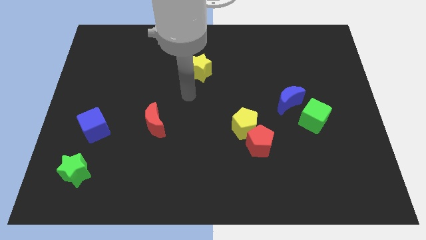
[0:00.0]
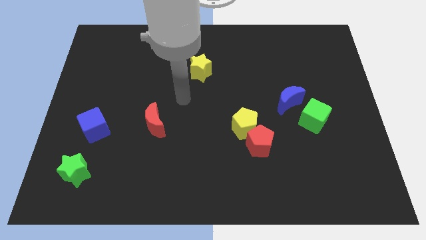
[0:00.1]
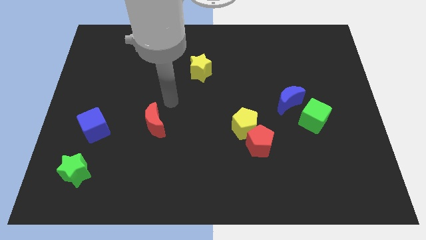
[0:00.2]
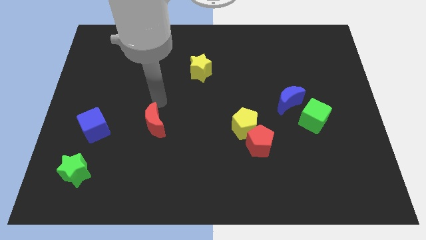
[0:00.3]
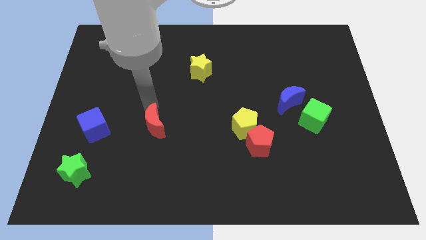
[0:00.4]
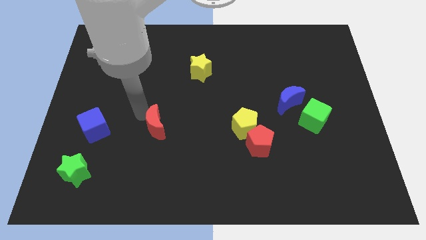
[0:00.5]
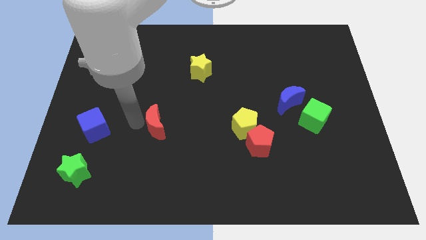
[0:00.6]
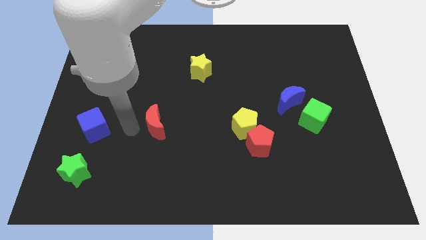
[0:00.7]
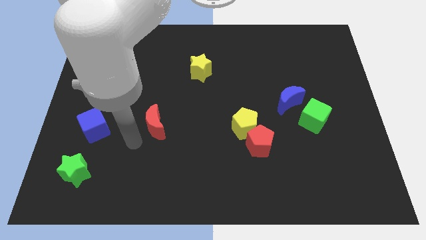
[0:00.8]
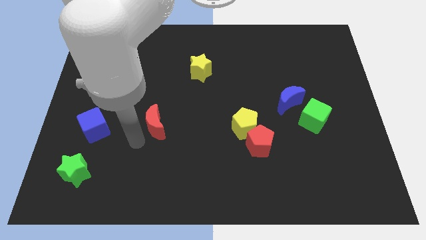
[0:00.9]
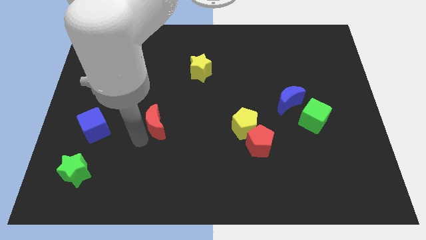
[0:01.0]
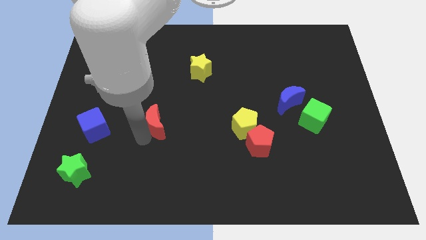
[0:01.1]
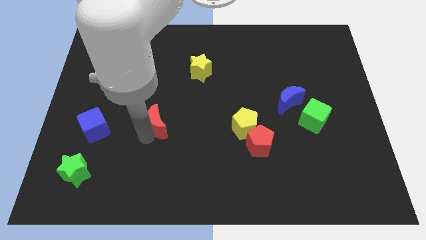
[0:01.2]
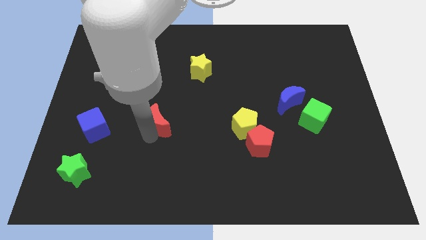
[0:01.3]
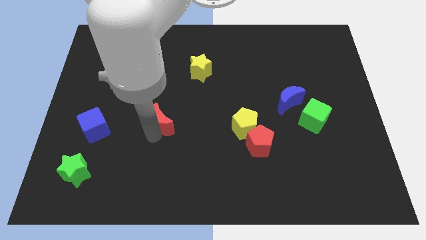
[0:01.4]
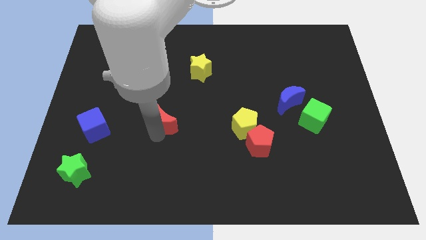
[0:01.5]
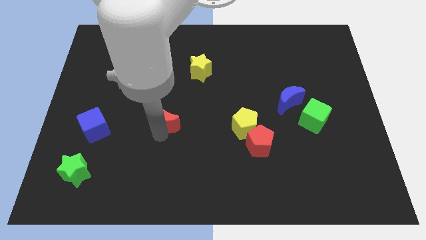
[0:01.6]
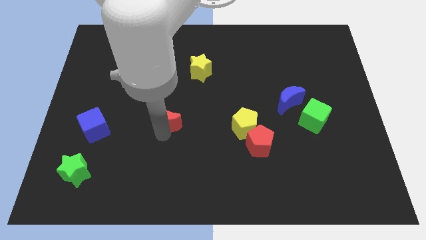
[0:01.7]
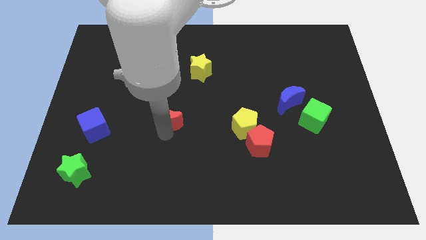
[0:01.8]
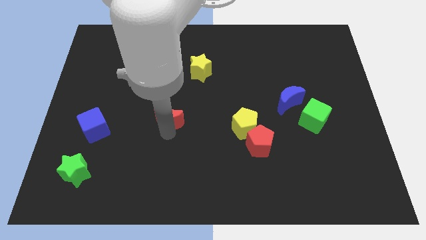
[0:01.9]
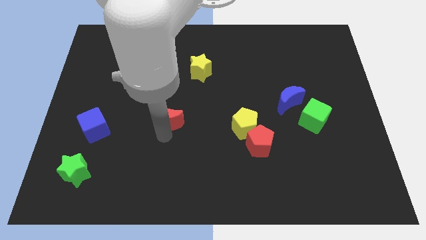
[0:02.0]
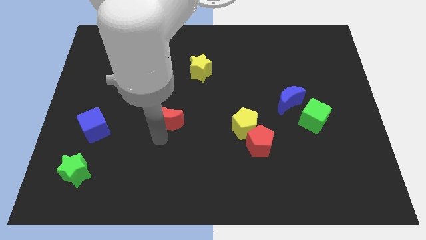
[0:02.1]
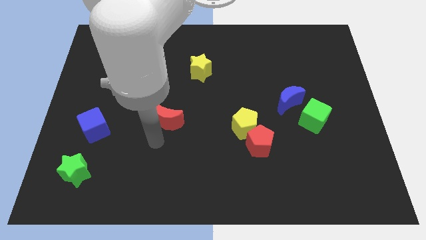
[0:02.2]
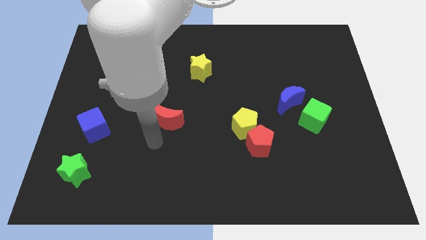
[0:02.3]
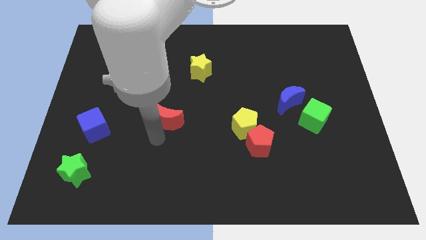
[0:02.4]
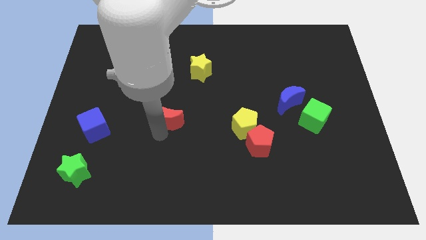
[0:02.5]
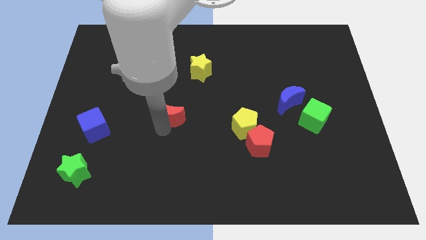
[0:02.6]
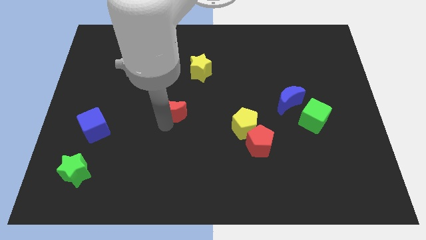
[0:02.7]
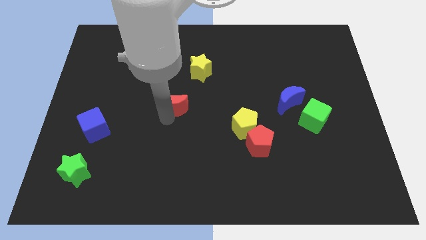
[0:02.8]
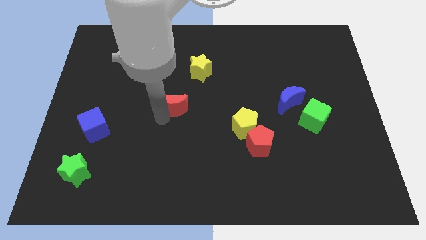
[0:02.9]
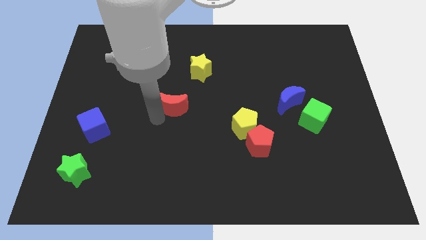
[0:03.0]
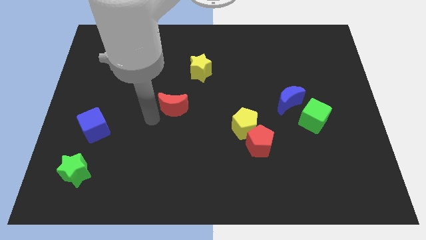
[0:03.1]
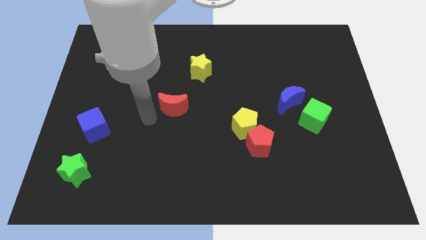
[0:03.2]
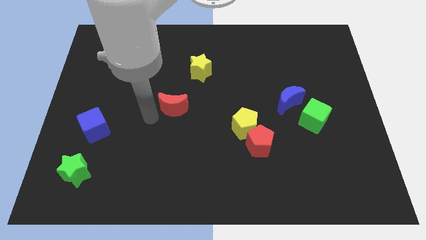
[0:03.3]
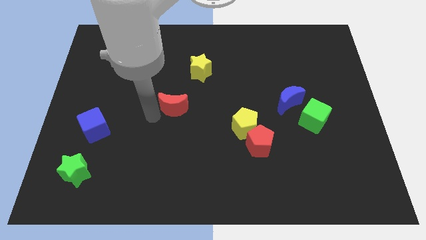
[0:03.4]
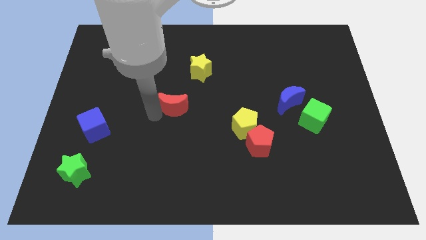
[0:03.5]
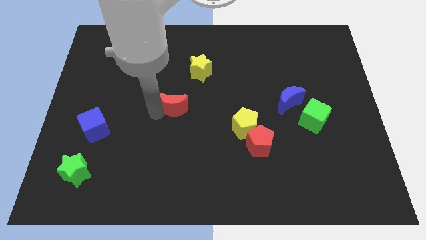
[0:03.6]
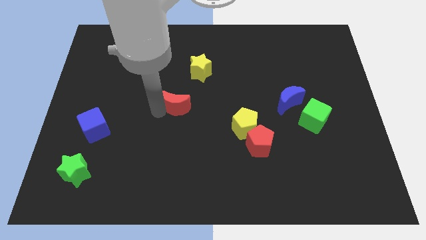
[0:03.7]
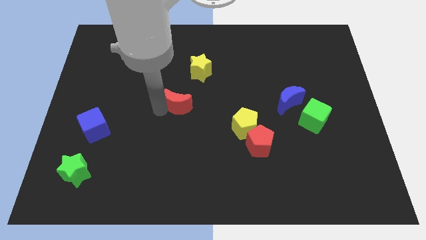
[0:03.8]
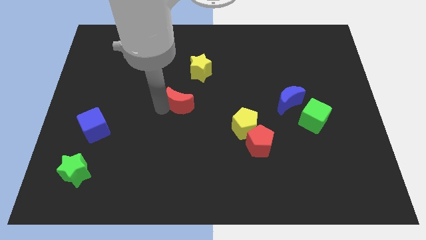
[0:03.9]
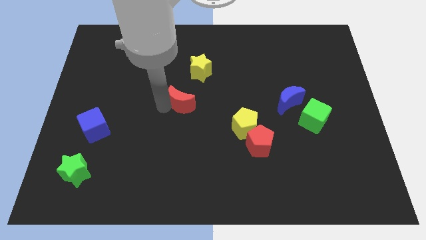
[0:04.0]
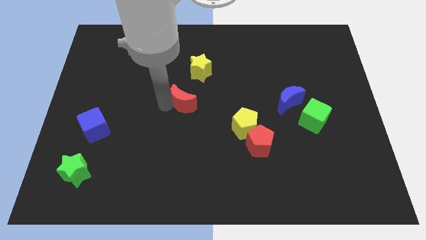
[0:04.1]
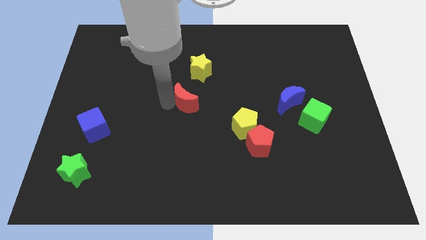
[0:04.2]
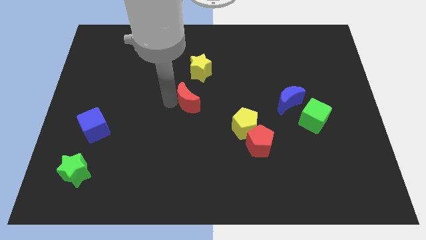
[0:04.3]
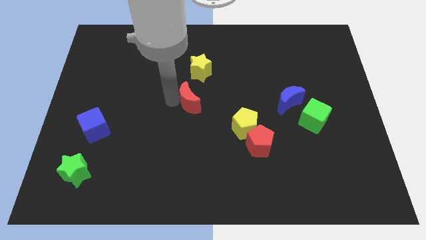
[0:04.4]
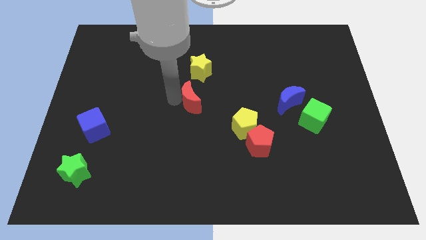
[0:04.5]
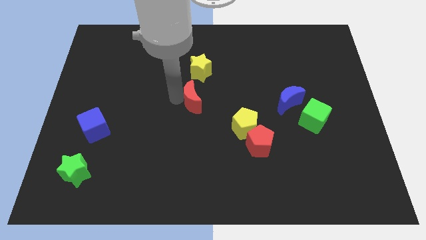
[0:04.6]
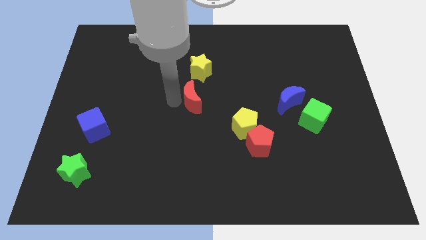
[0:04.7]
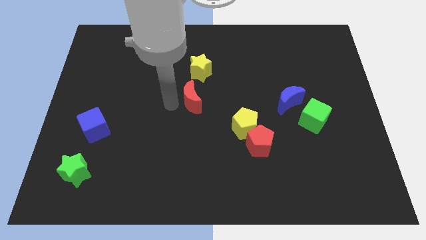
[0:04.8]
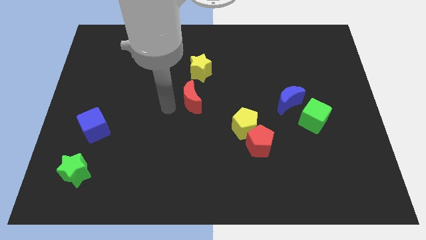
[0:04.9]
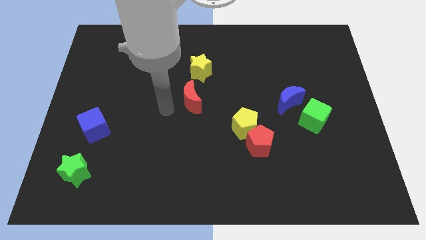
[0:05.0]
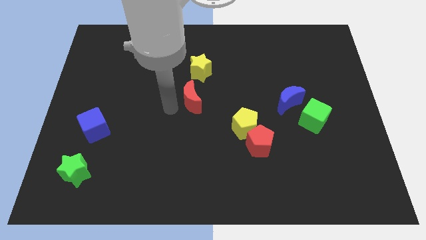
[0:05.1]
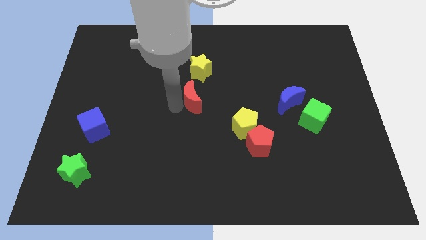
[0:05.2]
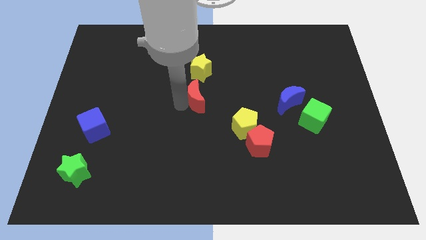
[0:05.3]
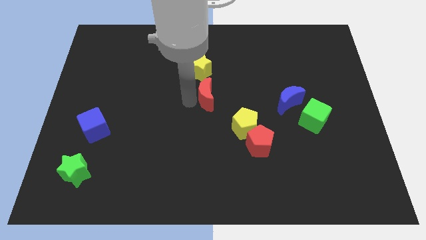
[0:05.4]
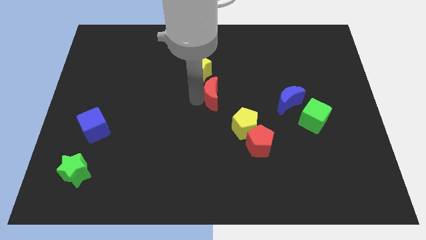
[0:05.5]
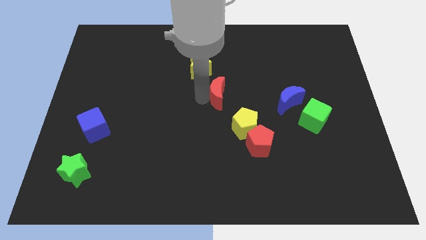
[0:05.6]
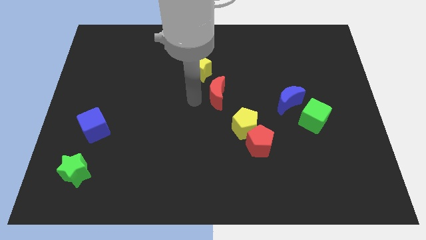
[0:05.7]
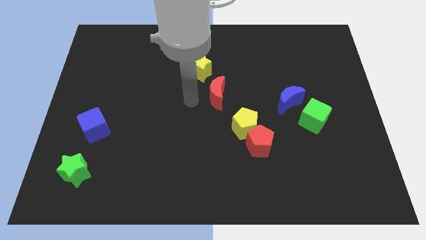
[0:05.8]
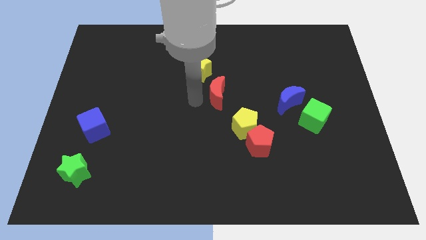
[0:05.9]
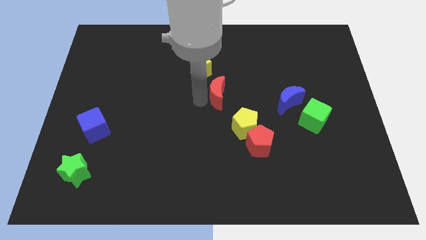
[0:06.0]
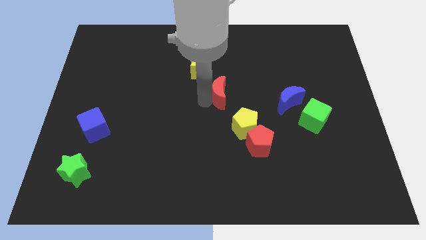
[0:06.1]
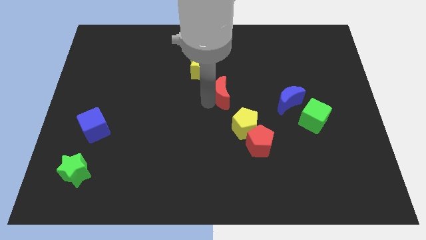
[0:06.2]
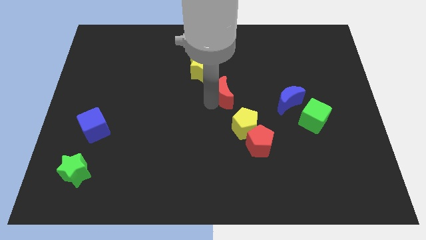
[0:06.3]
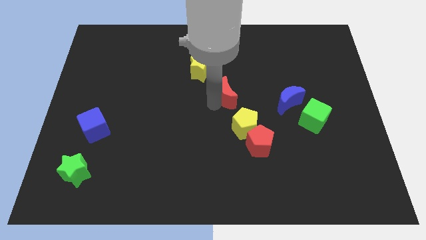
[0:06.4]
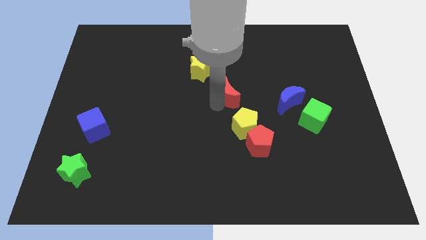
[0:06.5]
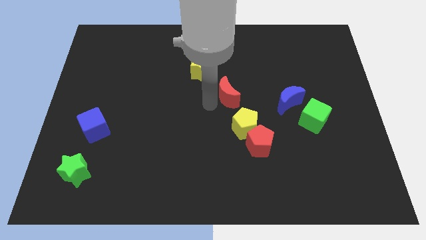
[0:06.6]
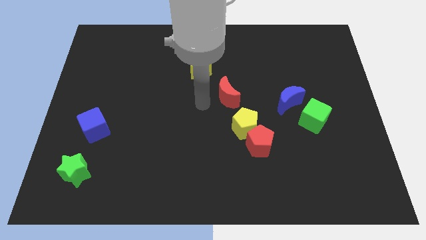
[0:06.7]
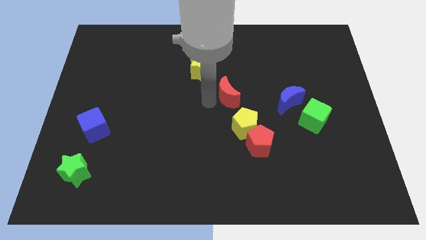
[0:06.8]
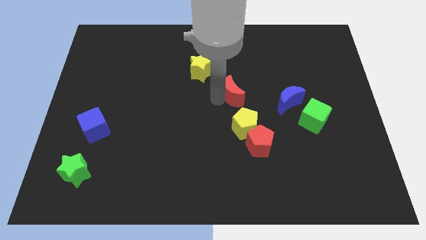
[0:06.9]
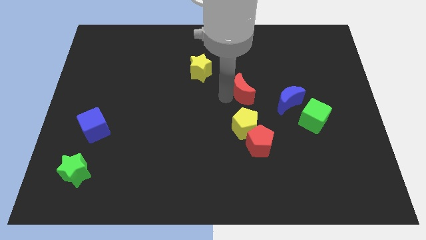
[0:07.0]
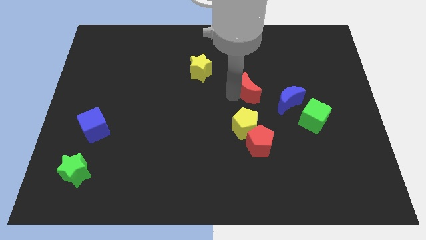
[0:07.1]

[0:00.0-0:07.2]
slide the red moon to the top left side of the blue moon
